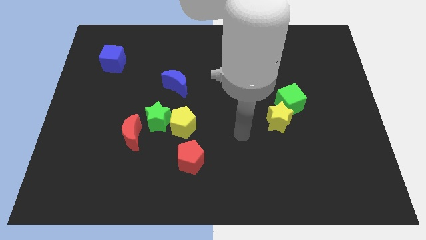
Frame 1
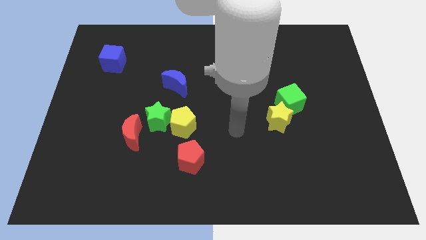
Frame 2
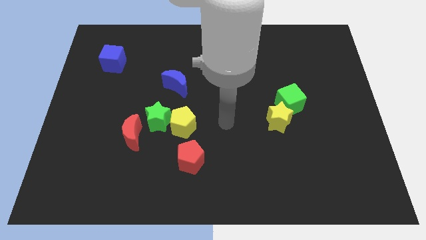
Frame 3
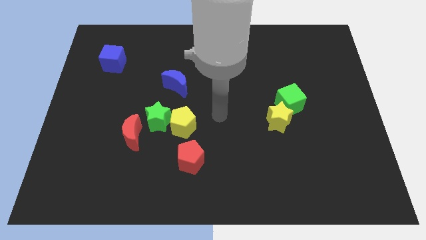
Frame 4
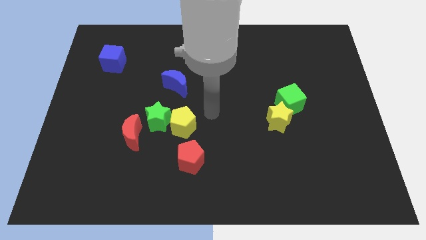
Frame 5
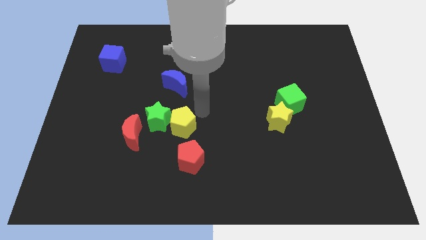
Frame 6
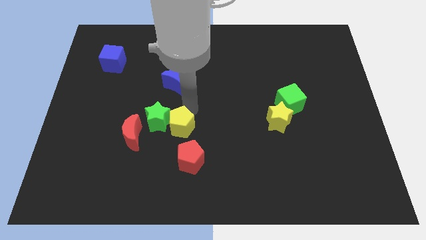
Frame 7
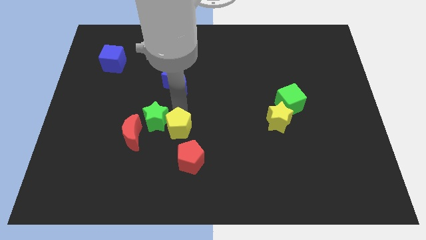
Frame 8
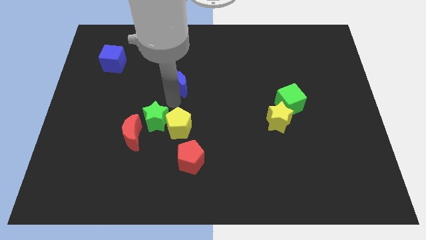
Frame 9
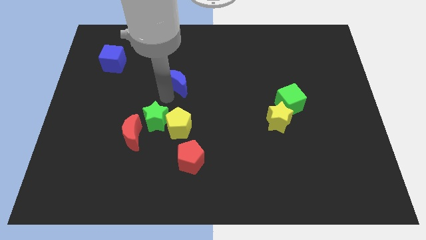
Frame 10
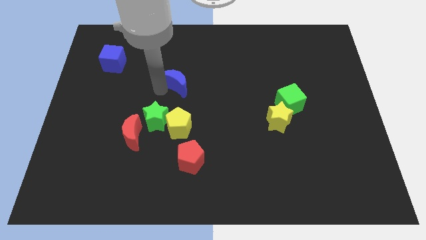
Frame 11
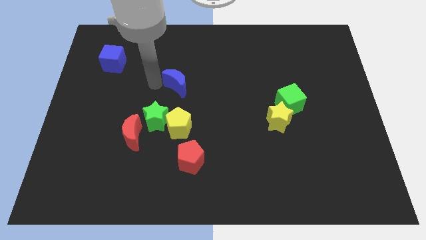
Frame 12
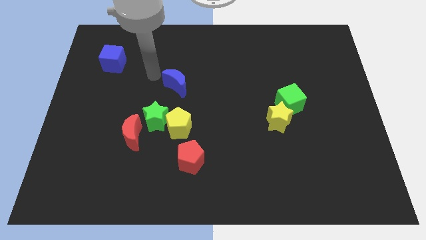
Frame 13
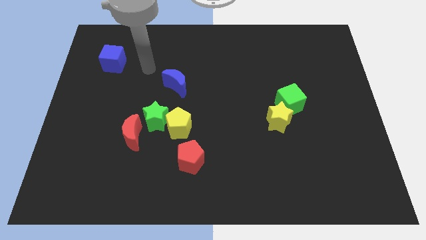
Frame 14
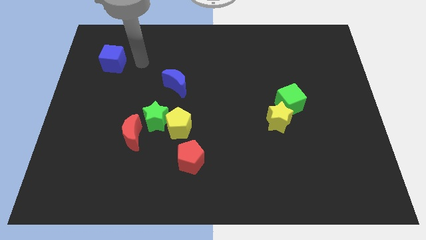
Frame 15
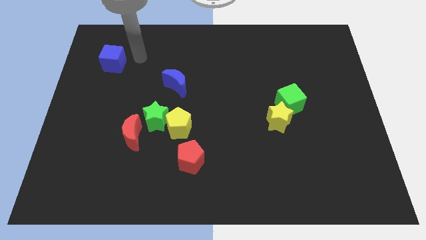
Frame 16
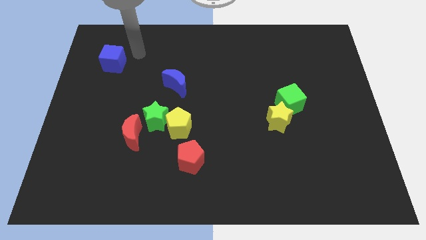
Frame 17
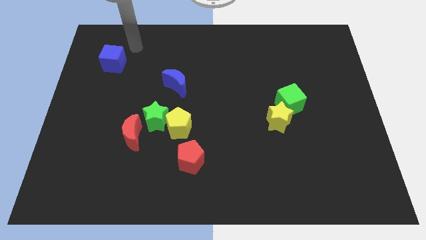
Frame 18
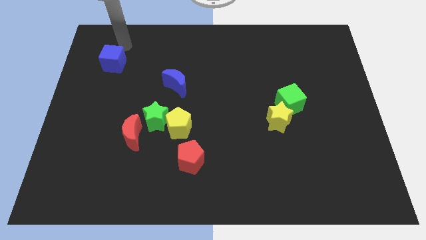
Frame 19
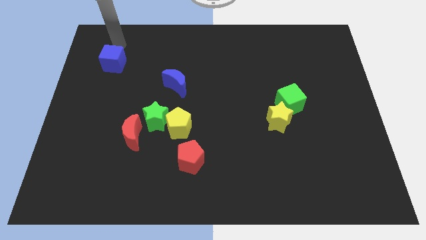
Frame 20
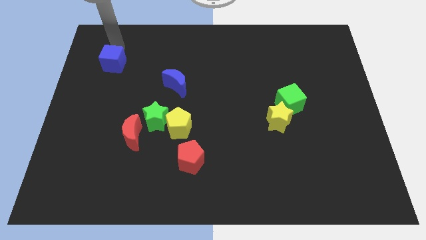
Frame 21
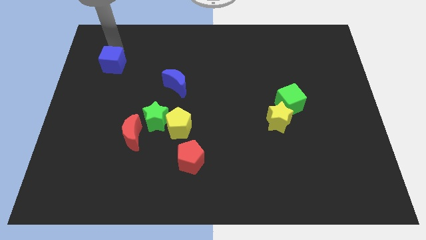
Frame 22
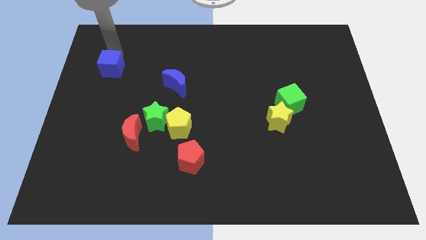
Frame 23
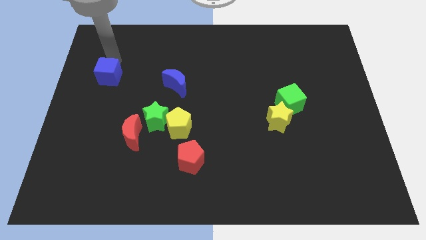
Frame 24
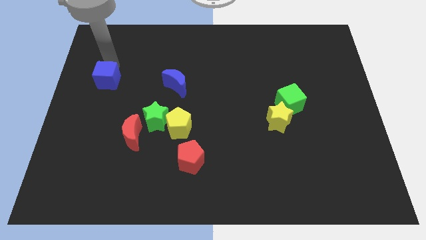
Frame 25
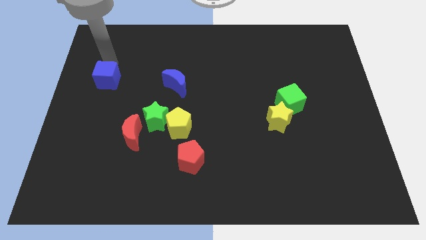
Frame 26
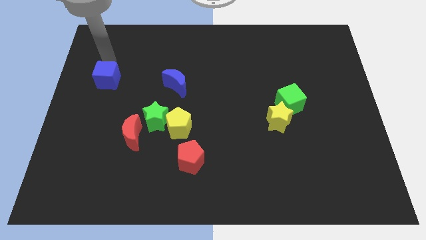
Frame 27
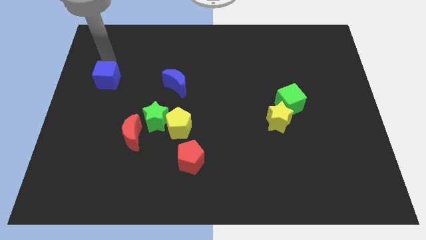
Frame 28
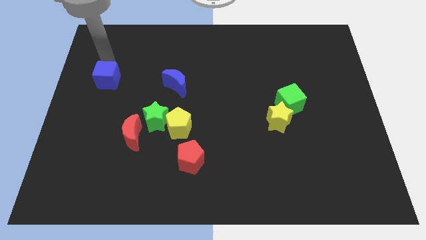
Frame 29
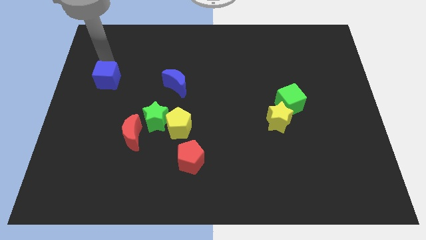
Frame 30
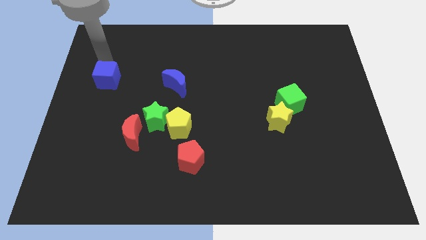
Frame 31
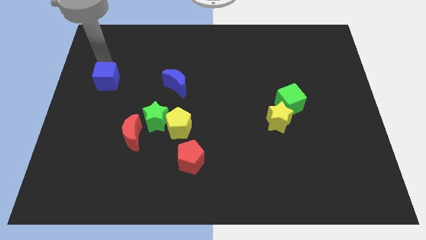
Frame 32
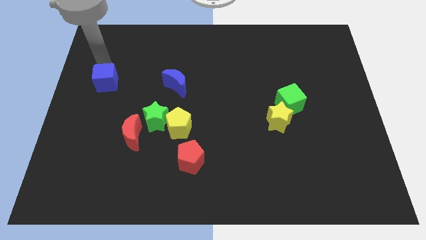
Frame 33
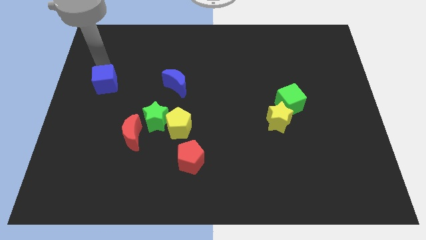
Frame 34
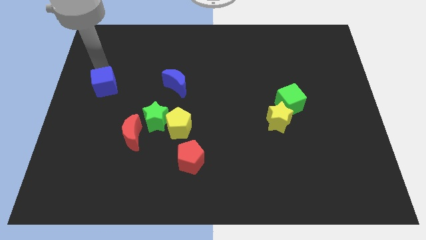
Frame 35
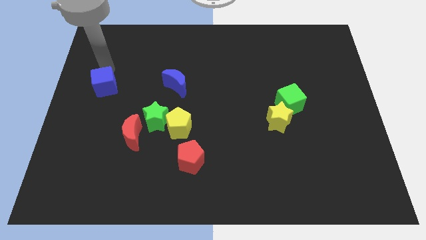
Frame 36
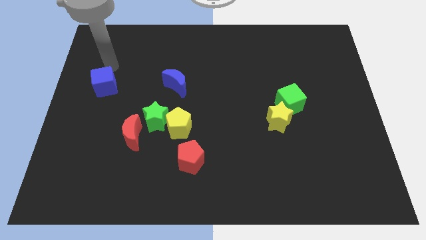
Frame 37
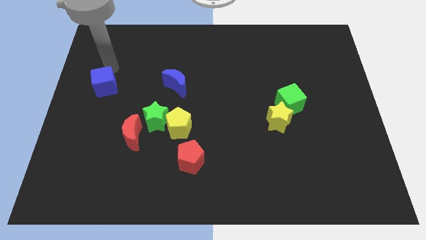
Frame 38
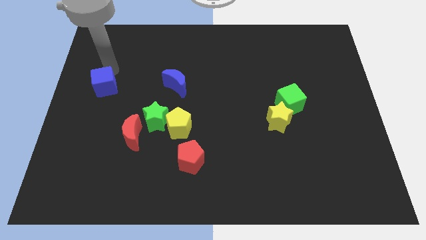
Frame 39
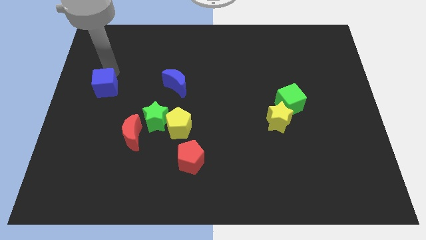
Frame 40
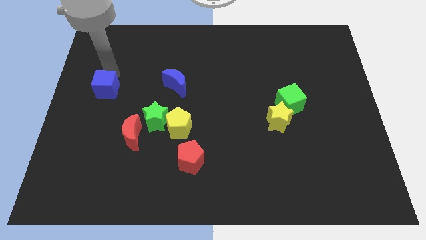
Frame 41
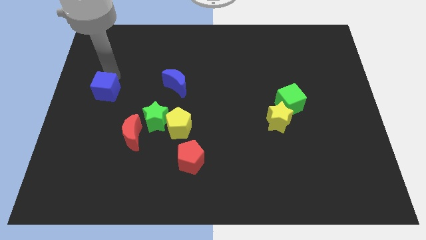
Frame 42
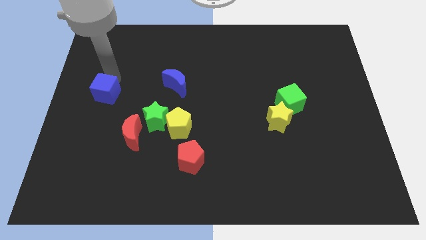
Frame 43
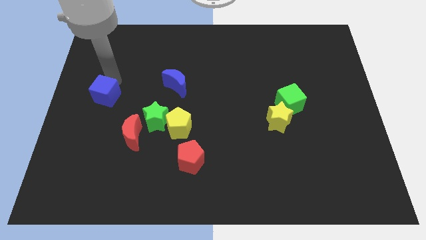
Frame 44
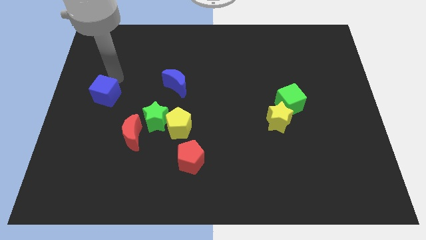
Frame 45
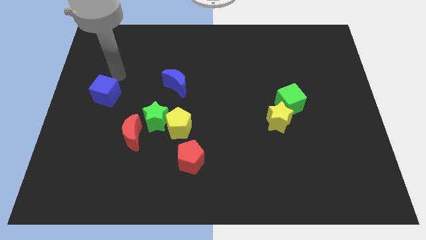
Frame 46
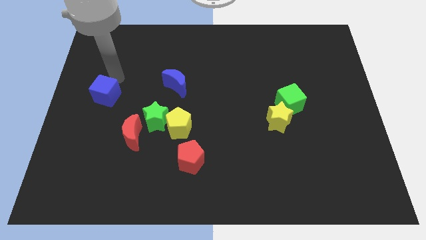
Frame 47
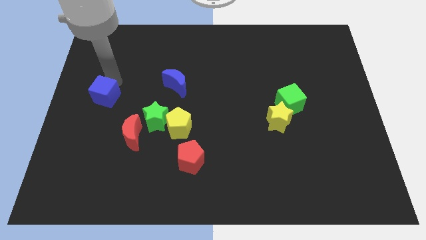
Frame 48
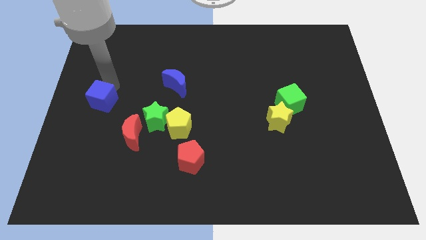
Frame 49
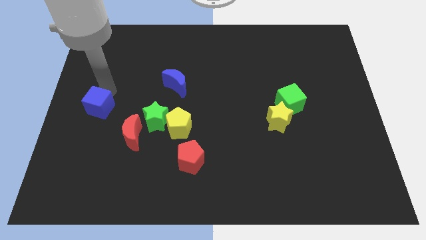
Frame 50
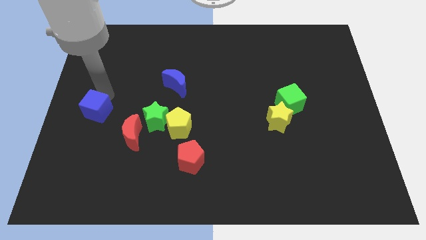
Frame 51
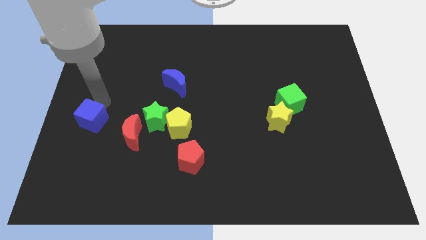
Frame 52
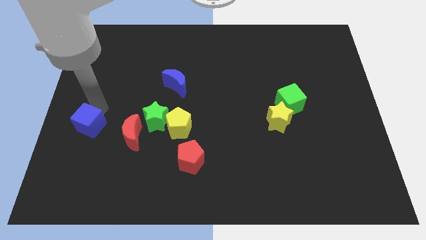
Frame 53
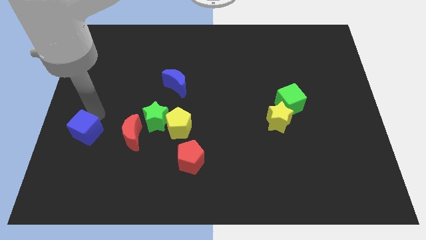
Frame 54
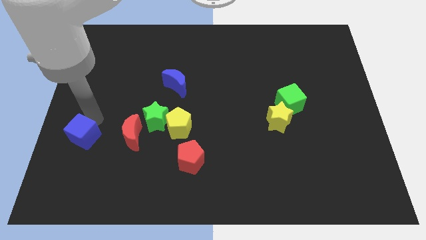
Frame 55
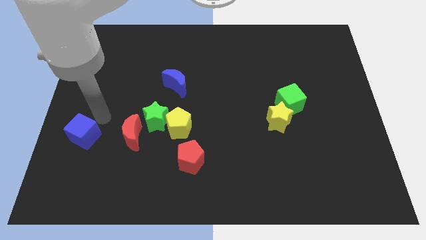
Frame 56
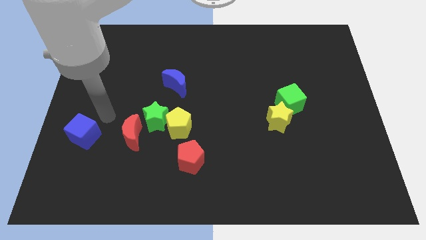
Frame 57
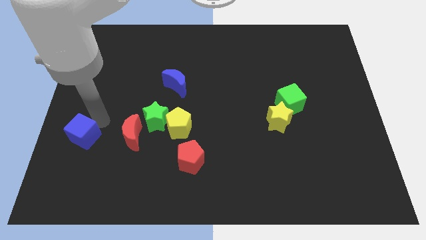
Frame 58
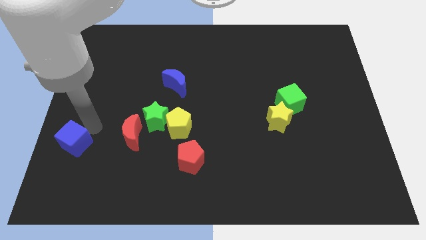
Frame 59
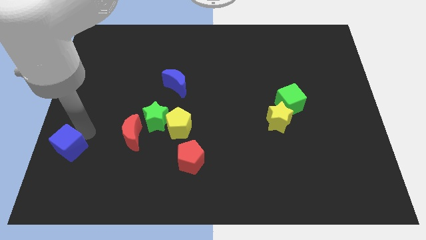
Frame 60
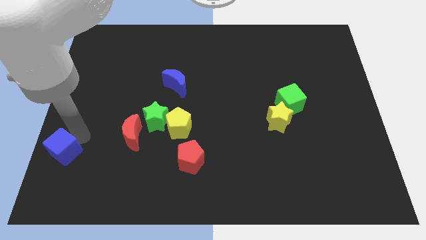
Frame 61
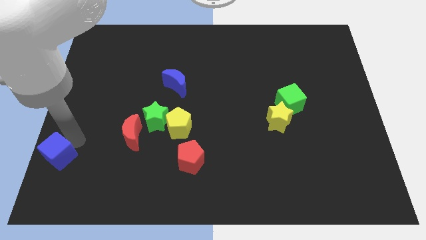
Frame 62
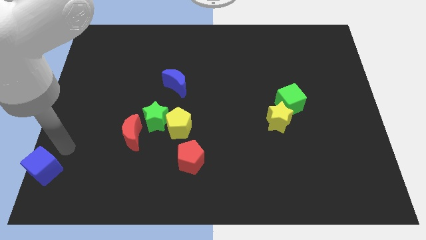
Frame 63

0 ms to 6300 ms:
move the blue cube to the bottom left
